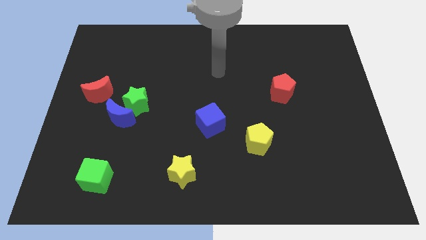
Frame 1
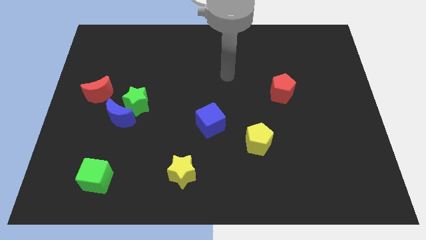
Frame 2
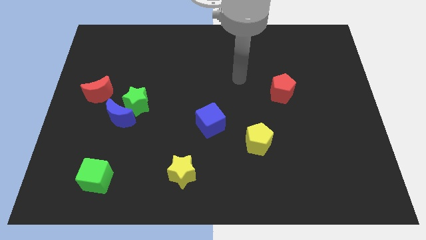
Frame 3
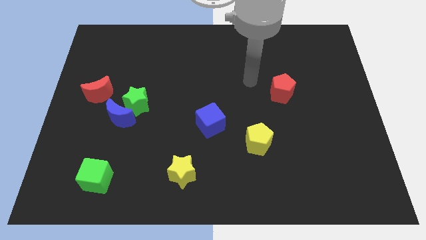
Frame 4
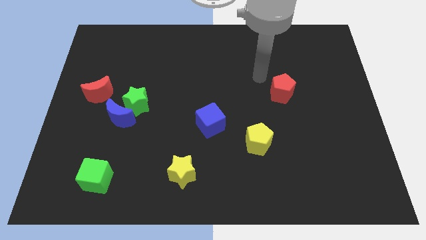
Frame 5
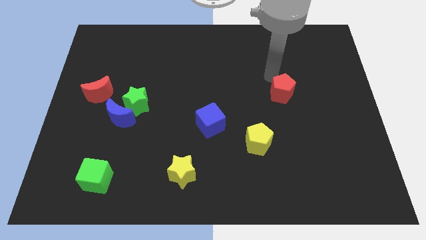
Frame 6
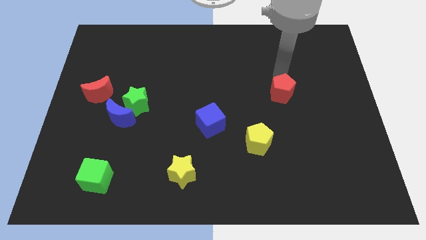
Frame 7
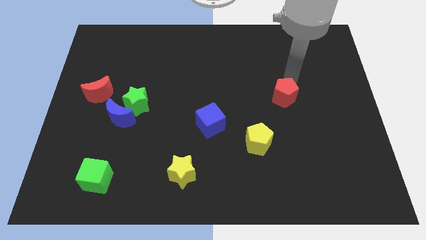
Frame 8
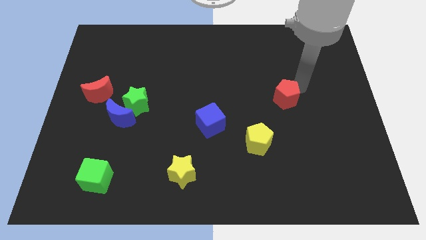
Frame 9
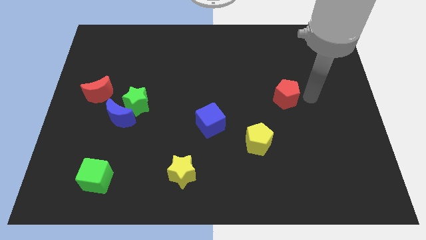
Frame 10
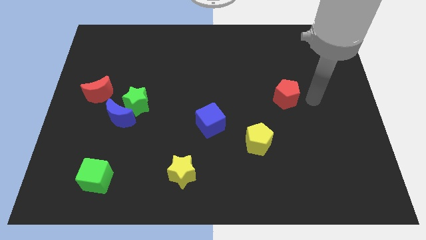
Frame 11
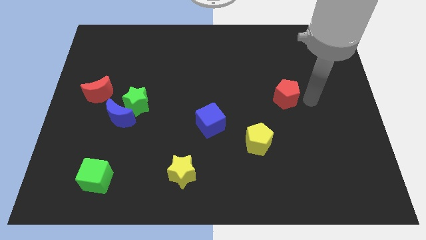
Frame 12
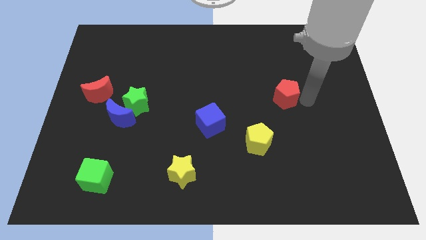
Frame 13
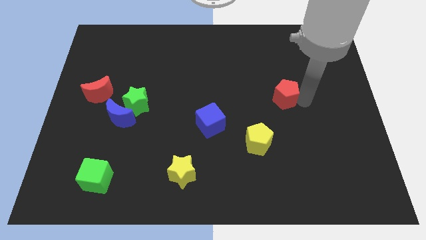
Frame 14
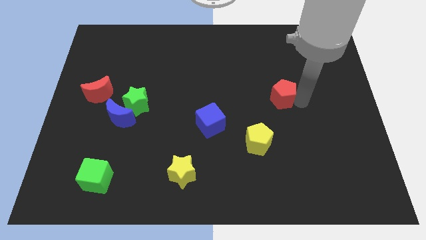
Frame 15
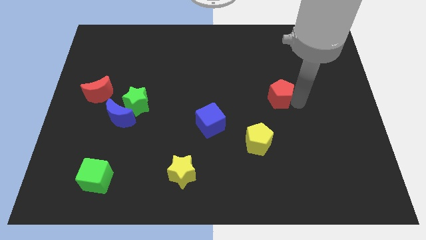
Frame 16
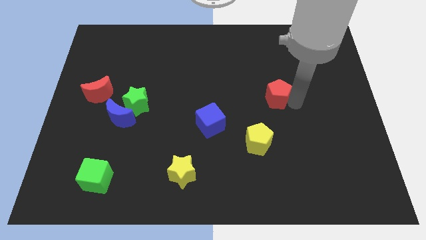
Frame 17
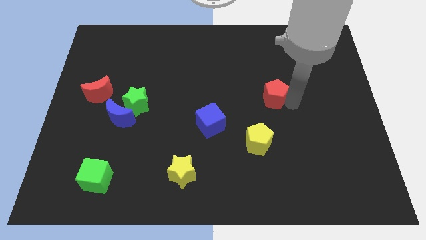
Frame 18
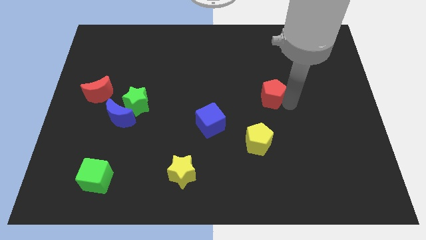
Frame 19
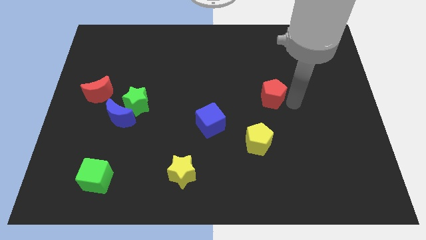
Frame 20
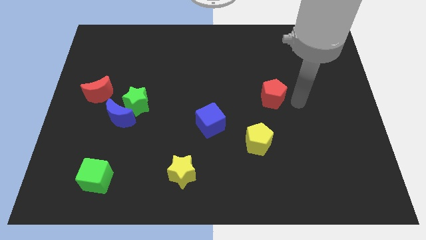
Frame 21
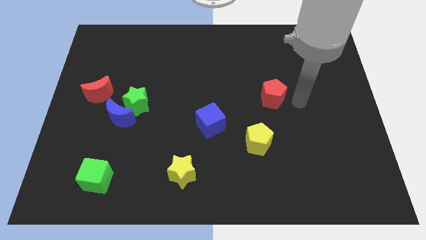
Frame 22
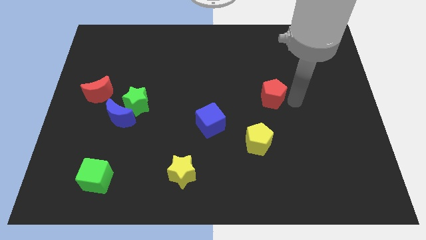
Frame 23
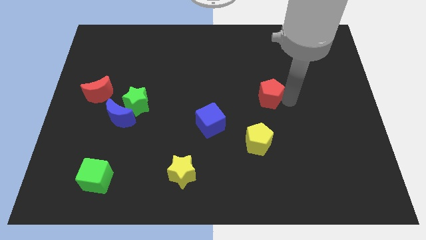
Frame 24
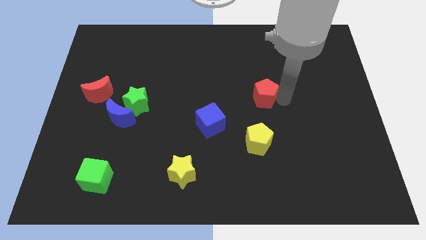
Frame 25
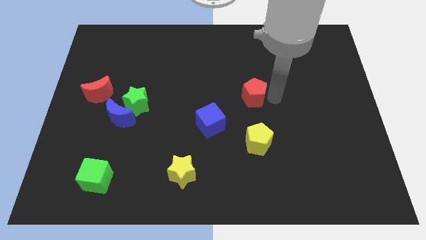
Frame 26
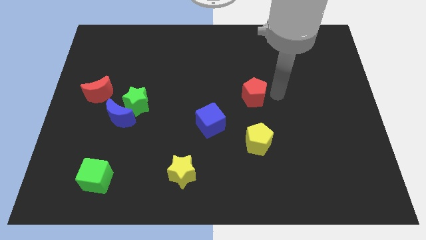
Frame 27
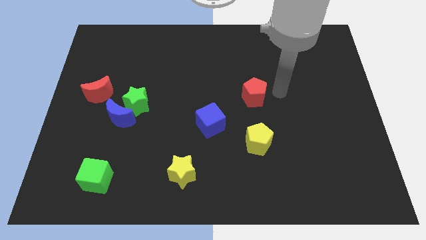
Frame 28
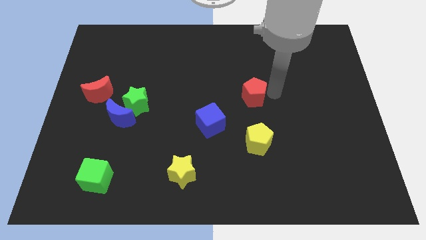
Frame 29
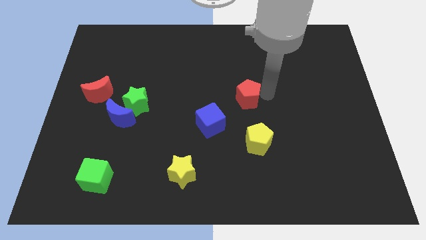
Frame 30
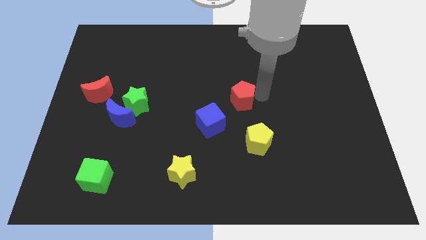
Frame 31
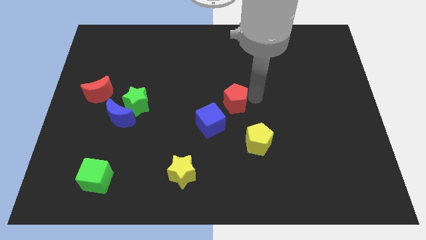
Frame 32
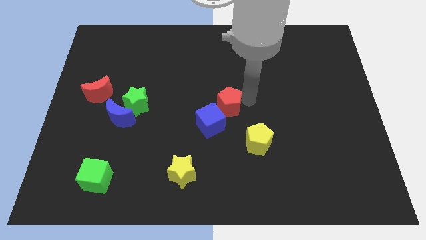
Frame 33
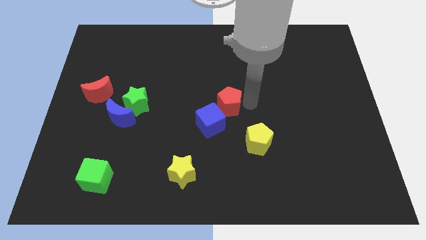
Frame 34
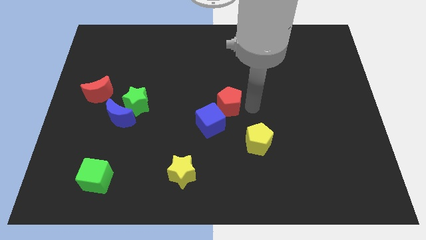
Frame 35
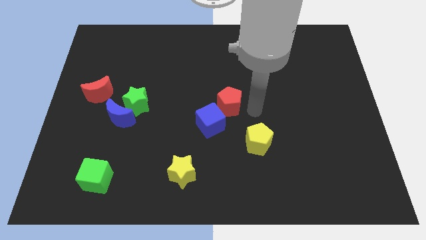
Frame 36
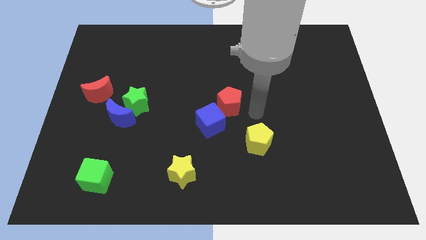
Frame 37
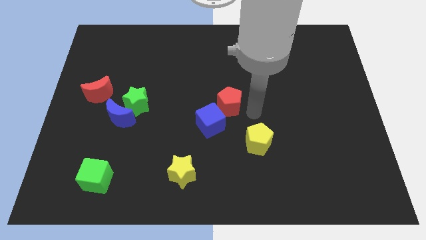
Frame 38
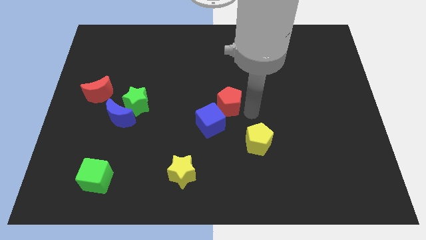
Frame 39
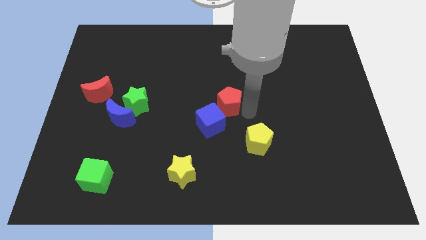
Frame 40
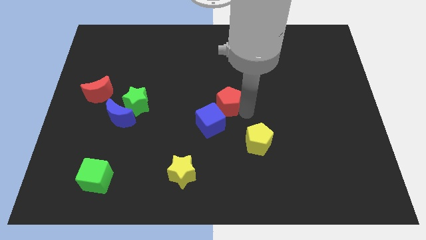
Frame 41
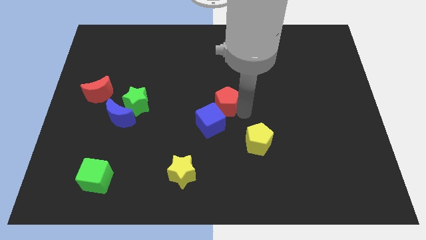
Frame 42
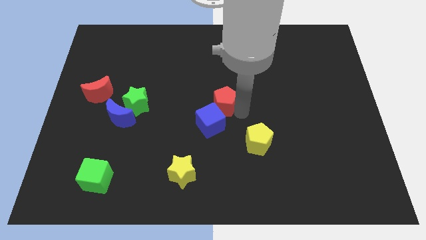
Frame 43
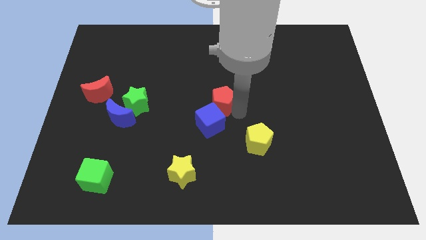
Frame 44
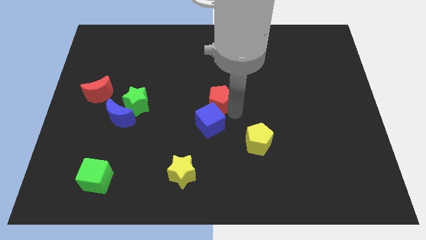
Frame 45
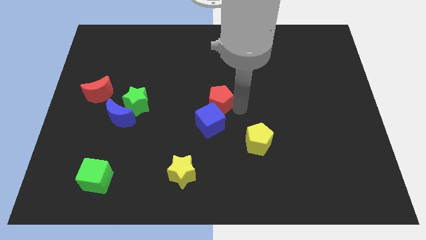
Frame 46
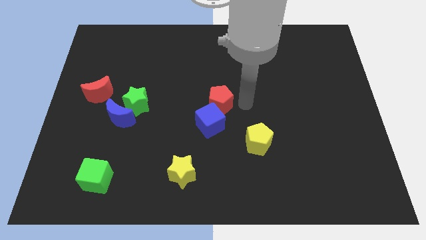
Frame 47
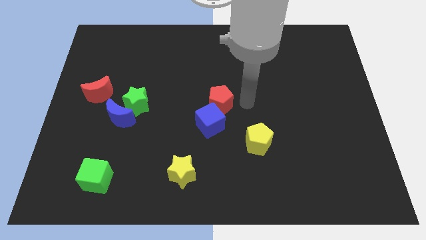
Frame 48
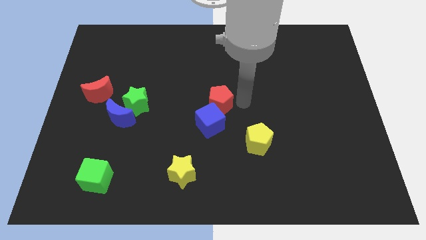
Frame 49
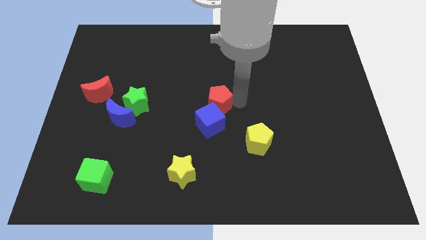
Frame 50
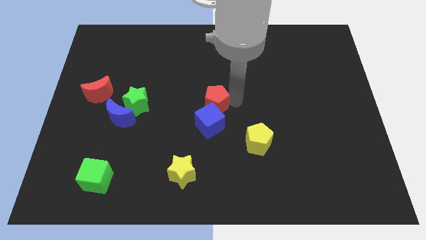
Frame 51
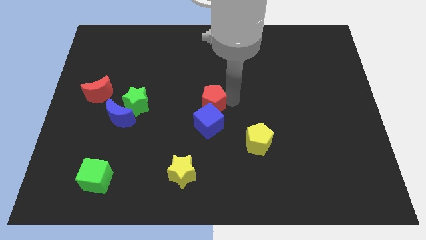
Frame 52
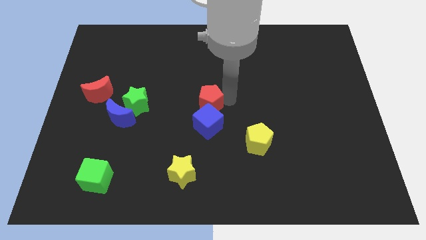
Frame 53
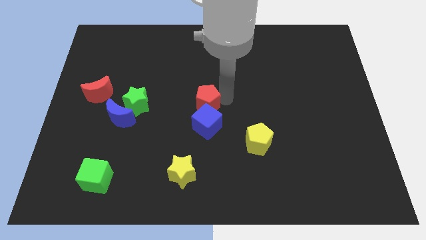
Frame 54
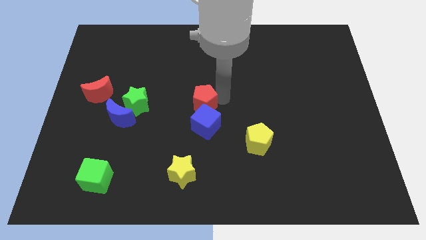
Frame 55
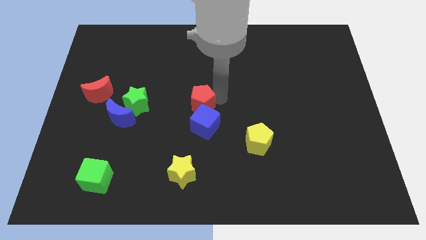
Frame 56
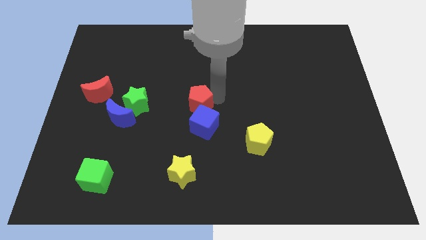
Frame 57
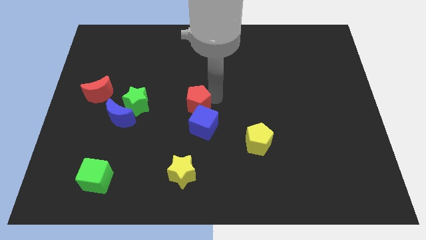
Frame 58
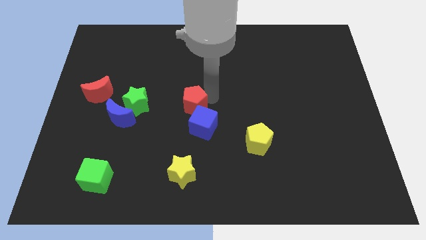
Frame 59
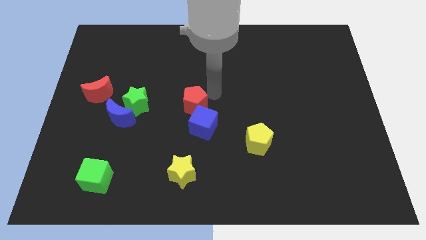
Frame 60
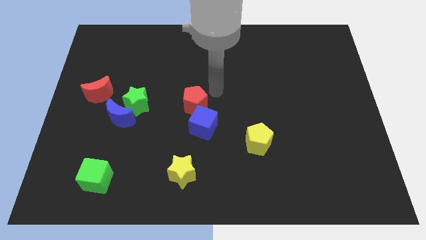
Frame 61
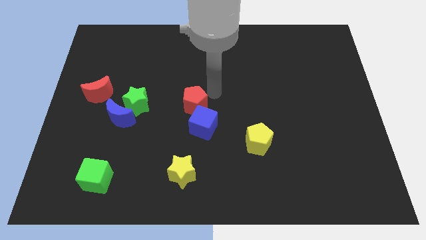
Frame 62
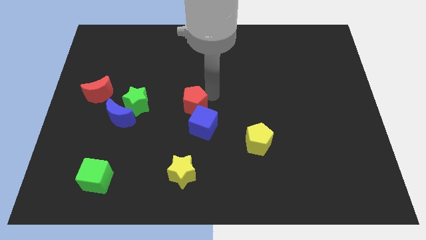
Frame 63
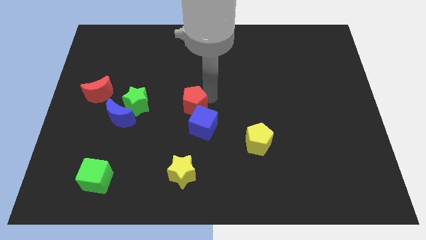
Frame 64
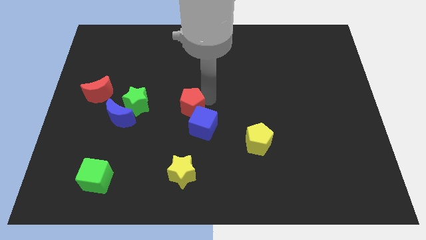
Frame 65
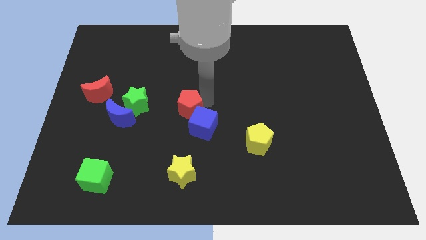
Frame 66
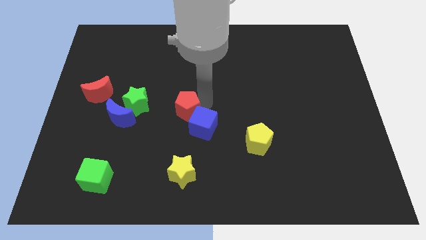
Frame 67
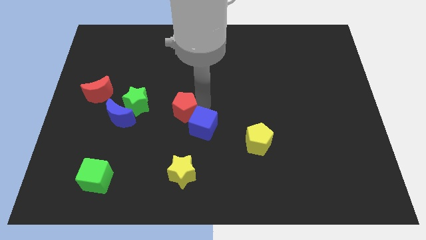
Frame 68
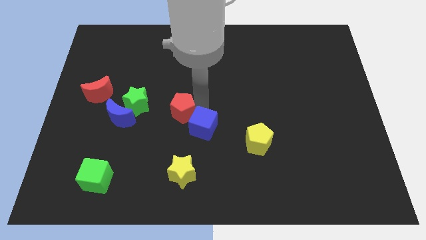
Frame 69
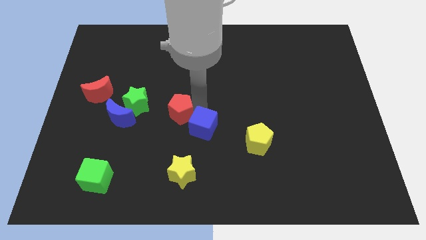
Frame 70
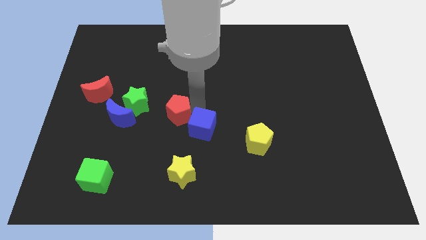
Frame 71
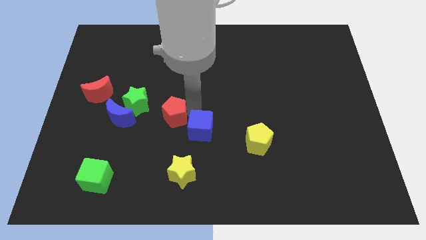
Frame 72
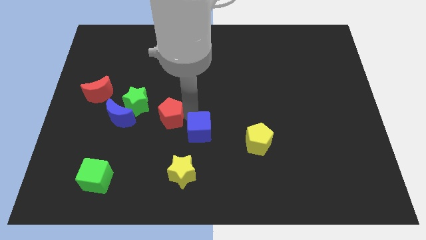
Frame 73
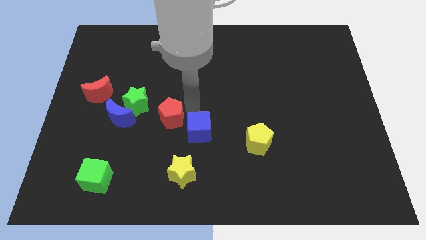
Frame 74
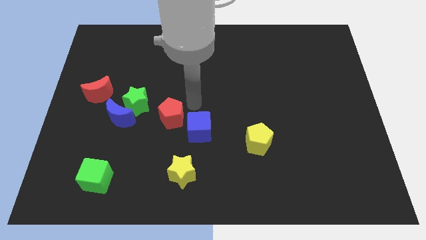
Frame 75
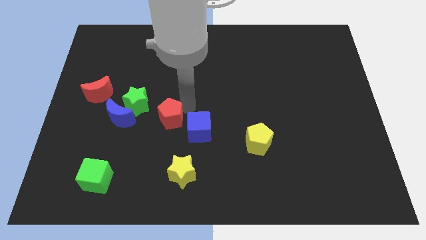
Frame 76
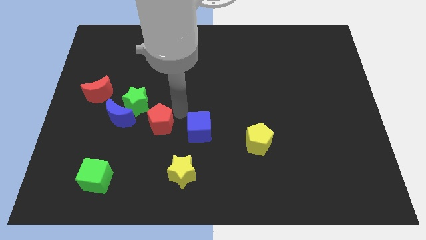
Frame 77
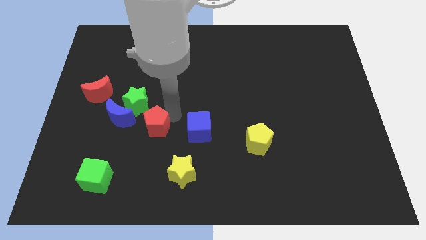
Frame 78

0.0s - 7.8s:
slide the red pentagon diagonally down and to the right of the blue moon
